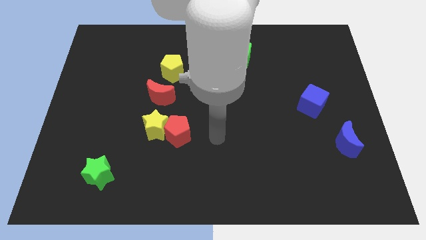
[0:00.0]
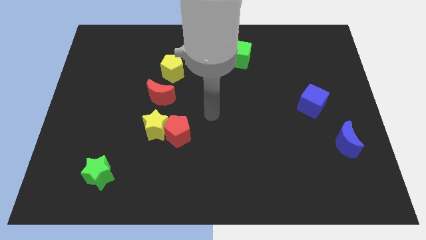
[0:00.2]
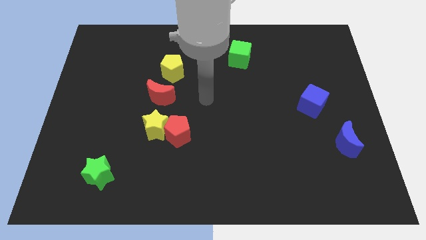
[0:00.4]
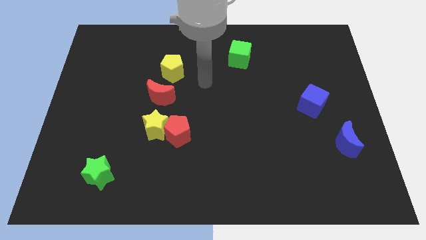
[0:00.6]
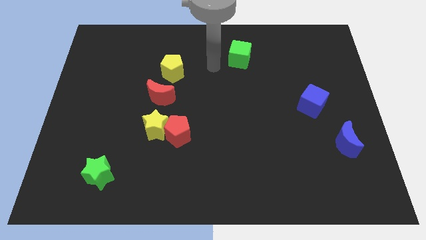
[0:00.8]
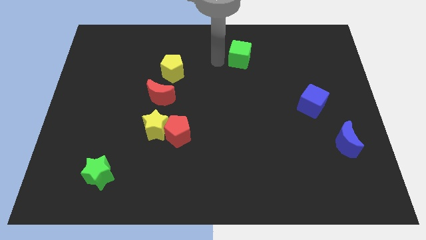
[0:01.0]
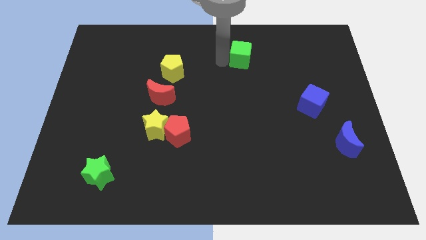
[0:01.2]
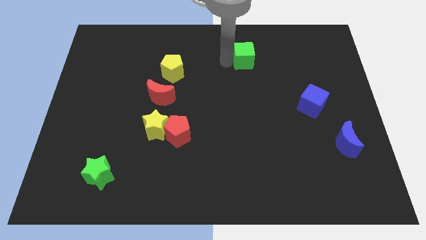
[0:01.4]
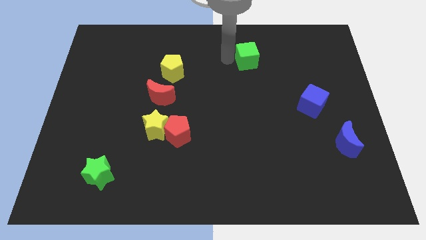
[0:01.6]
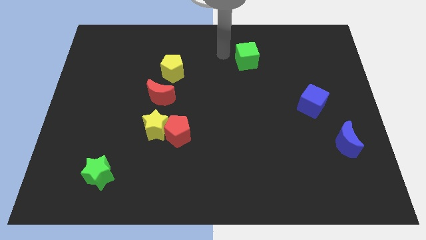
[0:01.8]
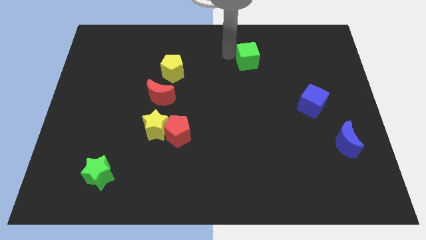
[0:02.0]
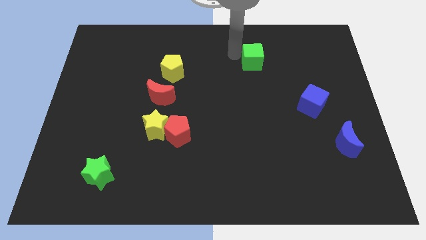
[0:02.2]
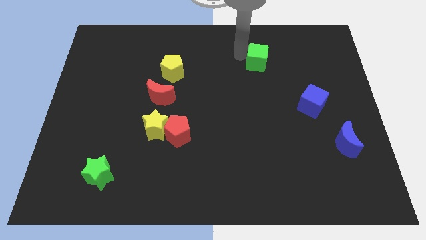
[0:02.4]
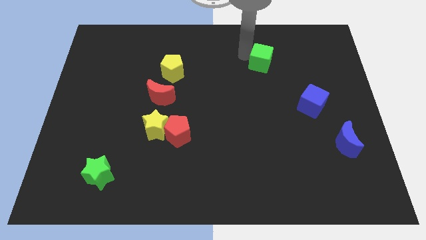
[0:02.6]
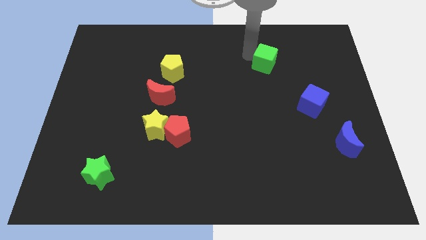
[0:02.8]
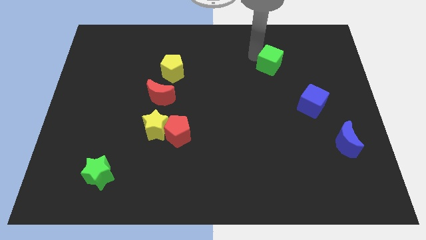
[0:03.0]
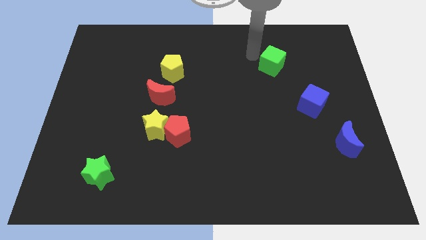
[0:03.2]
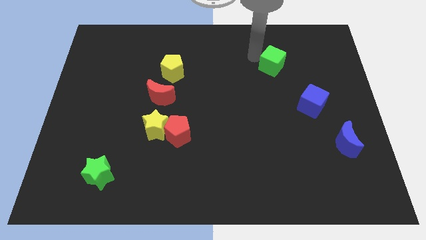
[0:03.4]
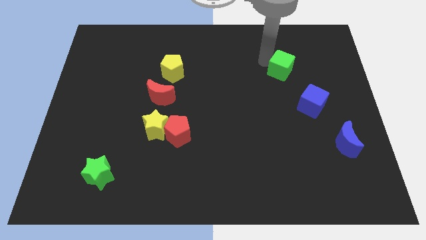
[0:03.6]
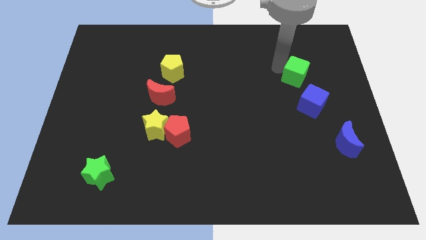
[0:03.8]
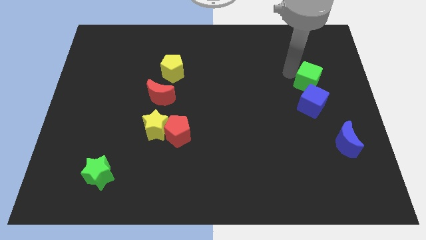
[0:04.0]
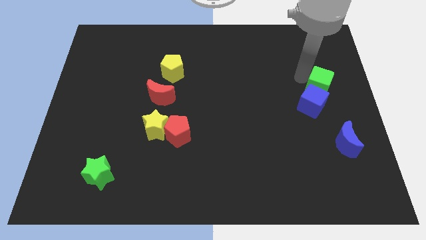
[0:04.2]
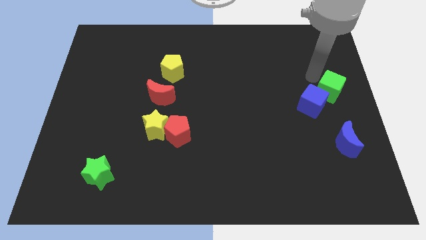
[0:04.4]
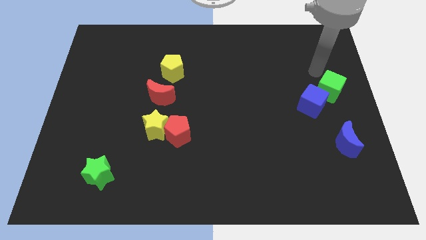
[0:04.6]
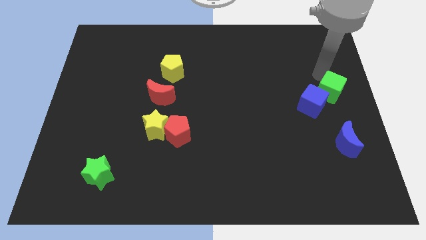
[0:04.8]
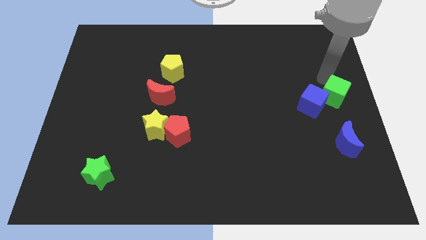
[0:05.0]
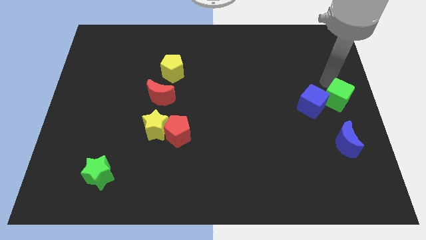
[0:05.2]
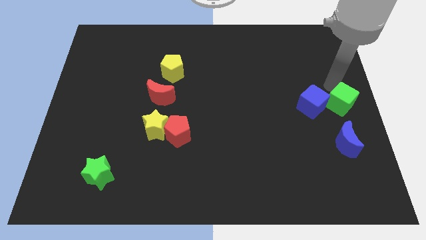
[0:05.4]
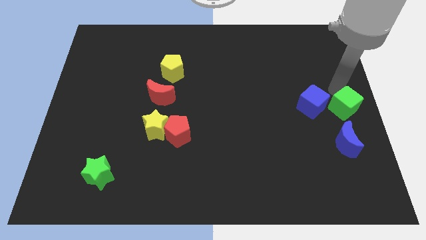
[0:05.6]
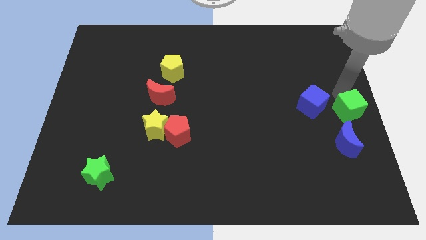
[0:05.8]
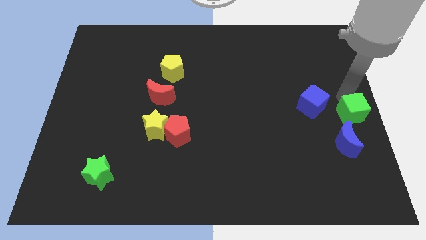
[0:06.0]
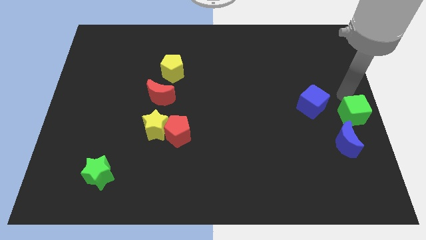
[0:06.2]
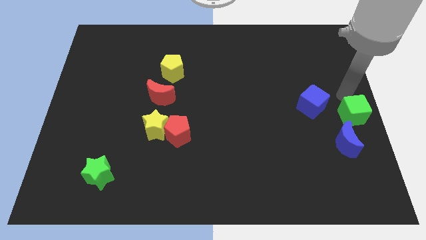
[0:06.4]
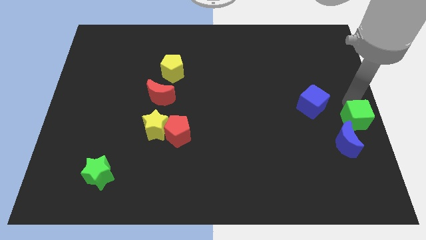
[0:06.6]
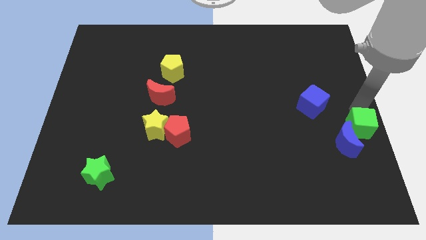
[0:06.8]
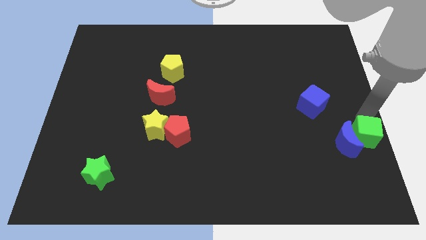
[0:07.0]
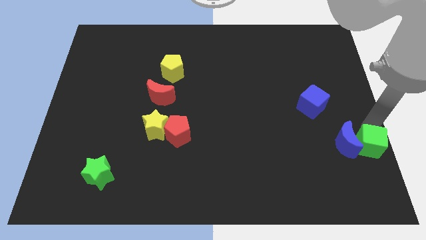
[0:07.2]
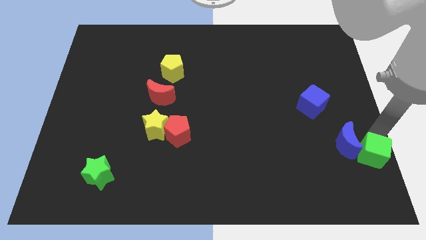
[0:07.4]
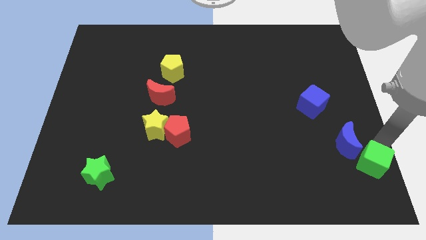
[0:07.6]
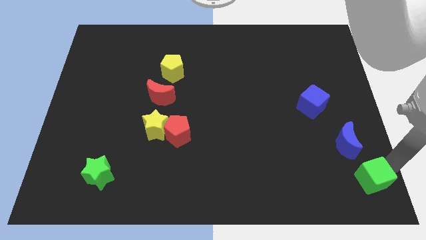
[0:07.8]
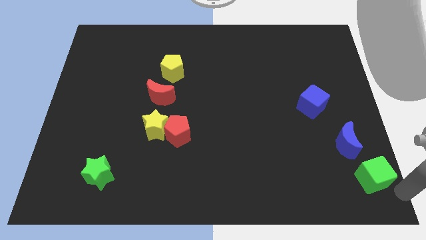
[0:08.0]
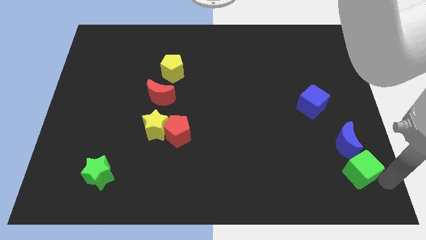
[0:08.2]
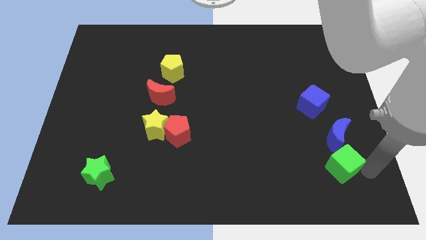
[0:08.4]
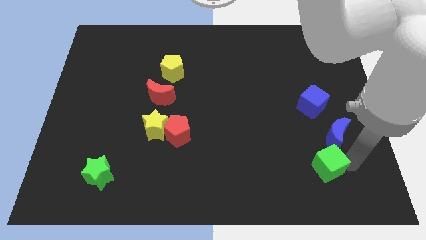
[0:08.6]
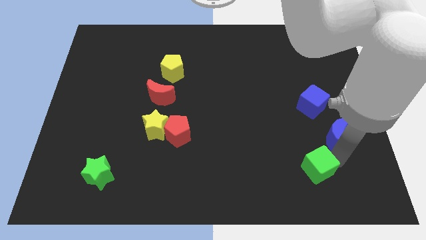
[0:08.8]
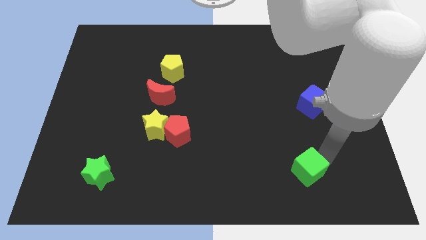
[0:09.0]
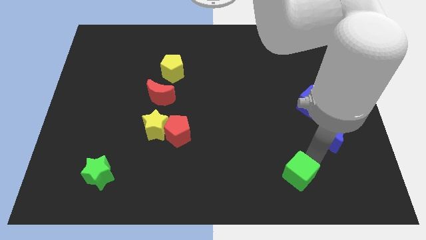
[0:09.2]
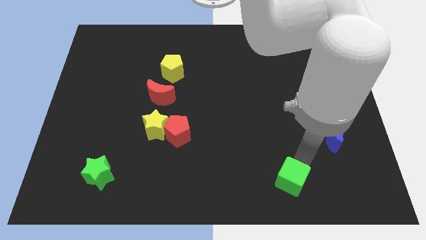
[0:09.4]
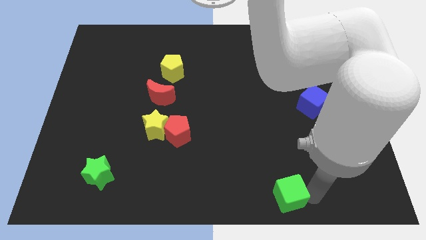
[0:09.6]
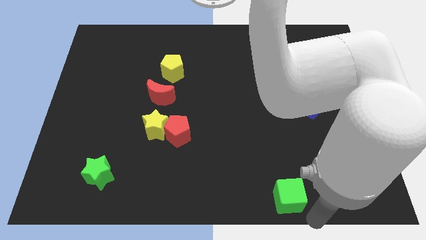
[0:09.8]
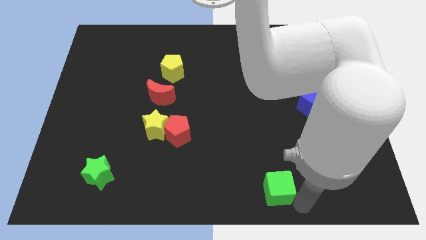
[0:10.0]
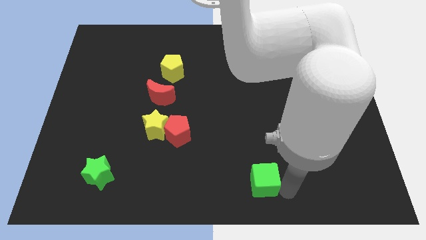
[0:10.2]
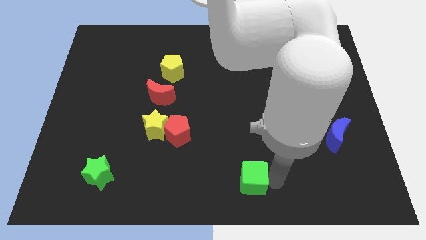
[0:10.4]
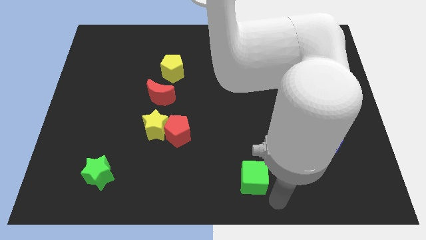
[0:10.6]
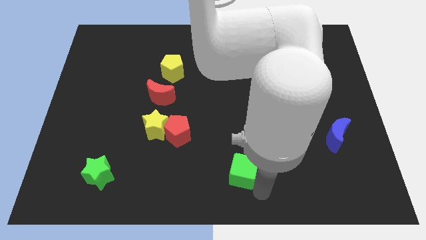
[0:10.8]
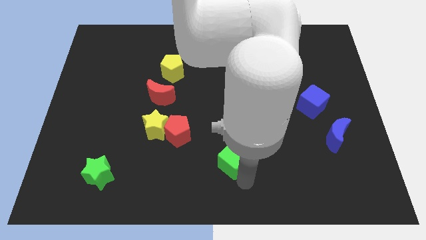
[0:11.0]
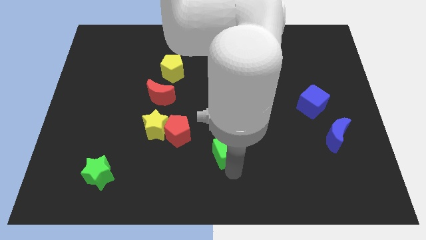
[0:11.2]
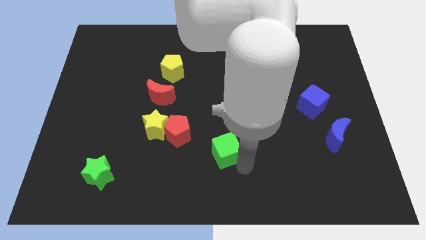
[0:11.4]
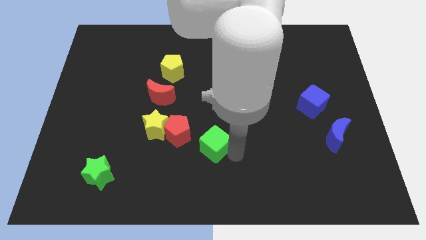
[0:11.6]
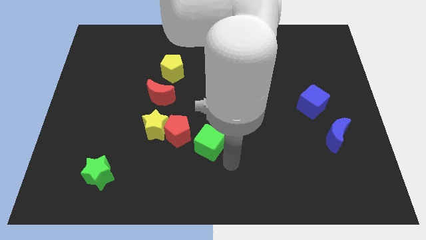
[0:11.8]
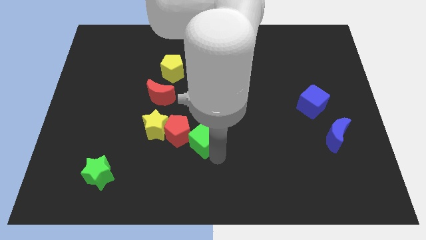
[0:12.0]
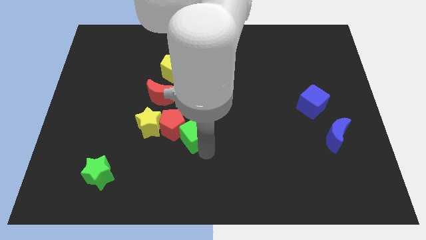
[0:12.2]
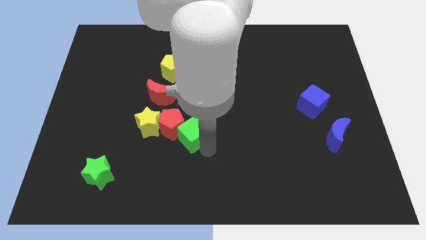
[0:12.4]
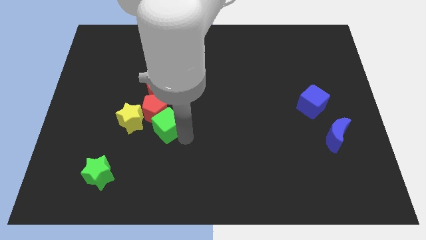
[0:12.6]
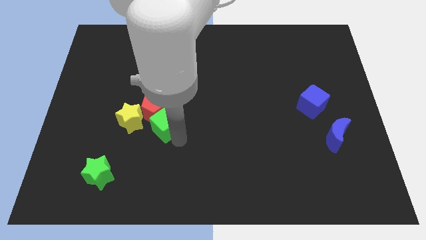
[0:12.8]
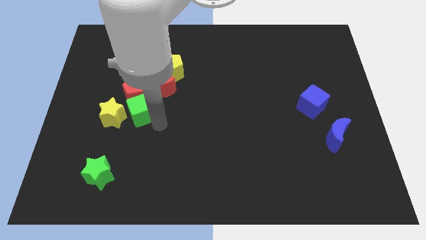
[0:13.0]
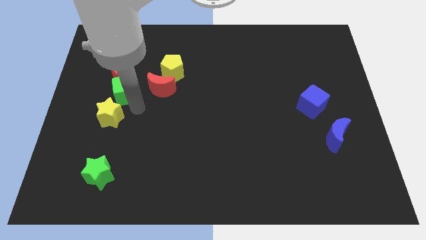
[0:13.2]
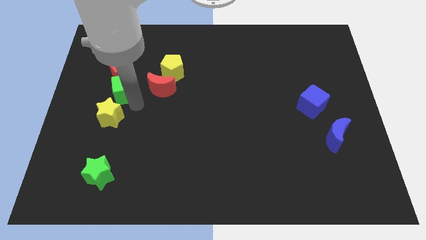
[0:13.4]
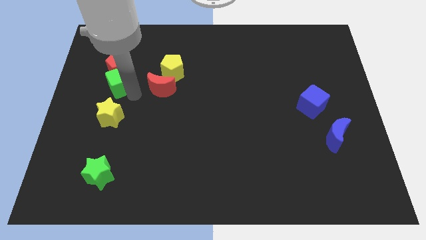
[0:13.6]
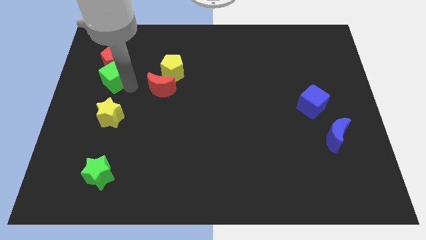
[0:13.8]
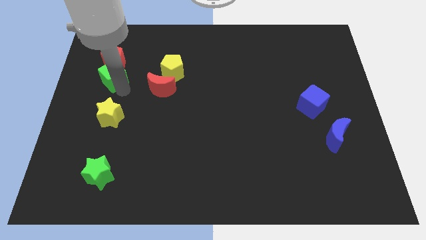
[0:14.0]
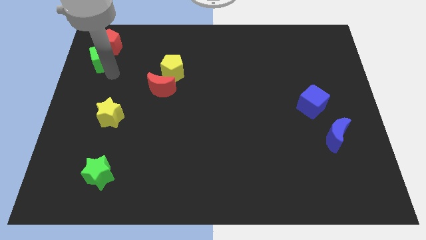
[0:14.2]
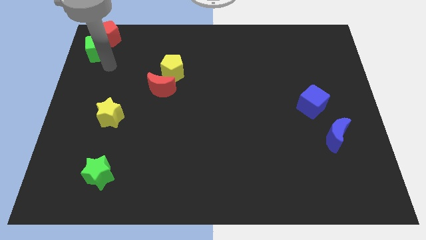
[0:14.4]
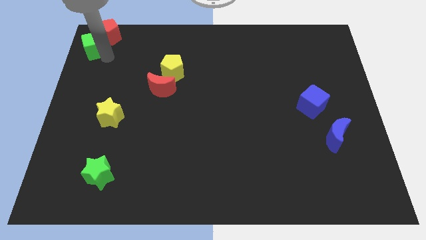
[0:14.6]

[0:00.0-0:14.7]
push the green cube to the top left

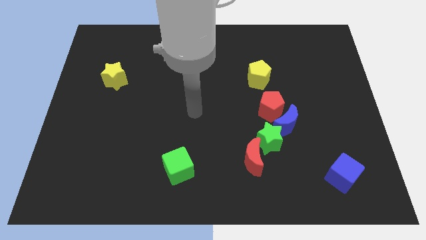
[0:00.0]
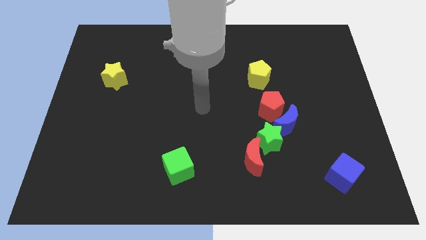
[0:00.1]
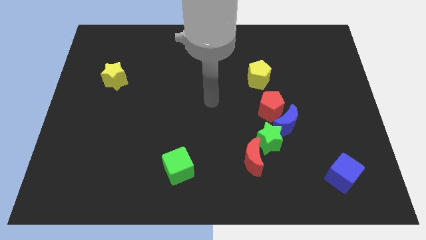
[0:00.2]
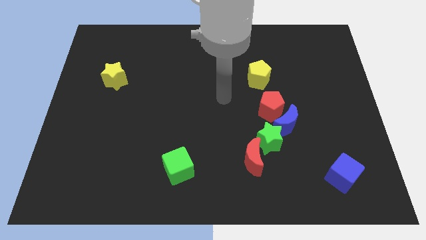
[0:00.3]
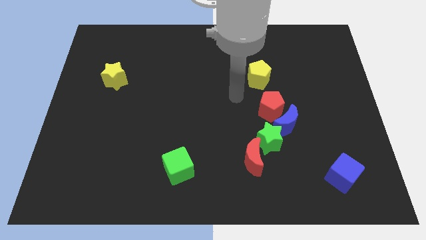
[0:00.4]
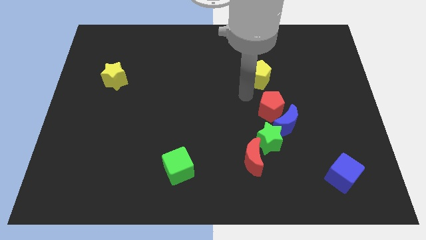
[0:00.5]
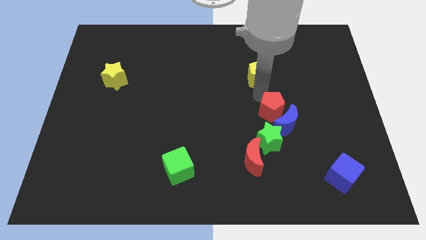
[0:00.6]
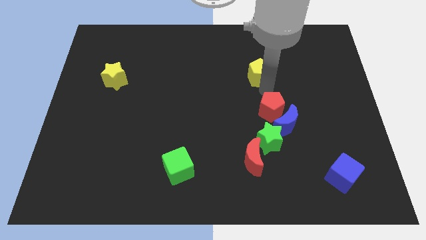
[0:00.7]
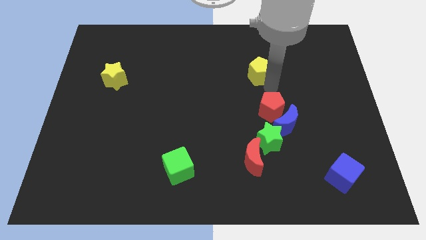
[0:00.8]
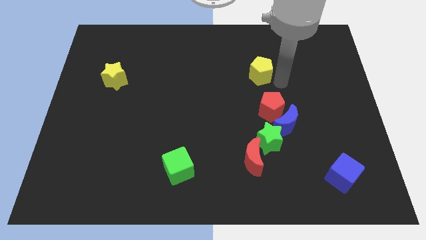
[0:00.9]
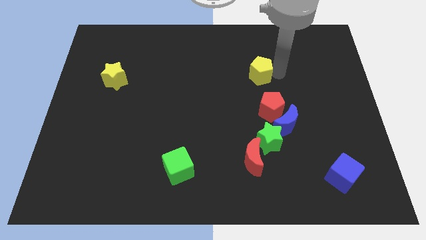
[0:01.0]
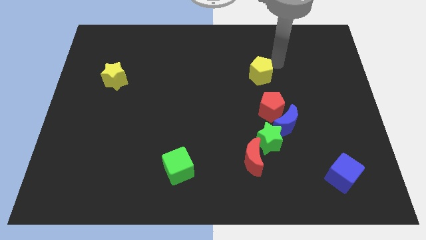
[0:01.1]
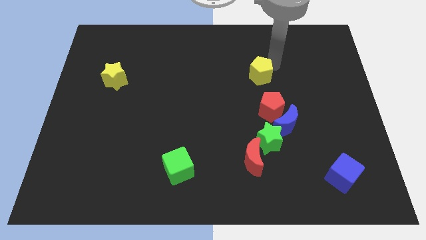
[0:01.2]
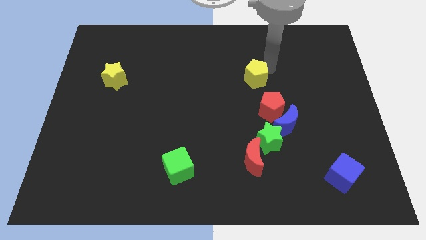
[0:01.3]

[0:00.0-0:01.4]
put the yellow pentagon to the middle of the board
